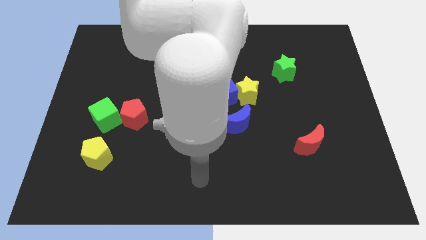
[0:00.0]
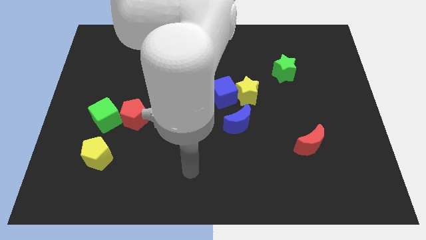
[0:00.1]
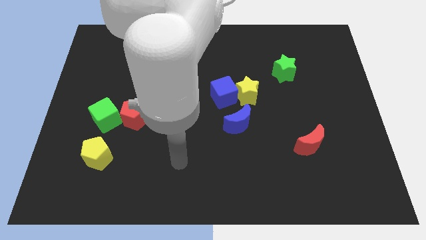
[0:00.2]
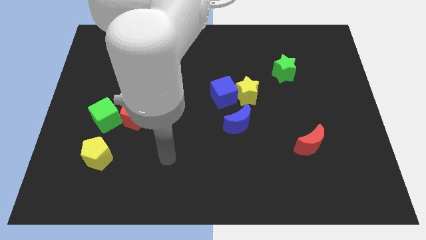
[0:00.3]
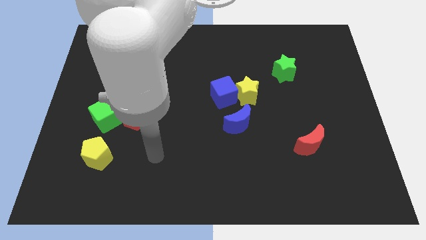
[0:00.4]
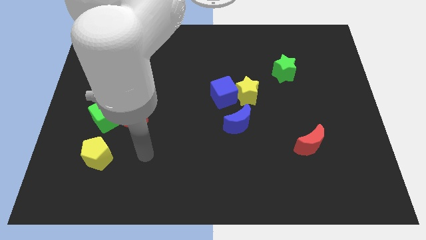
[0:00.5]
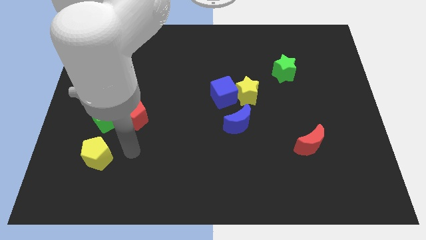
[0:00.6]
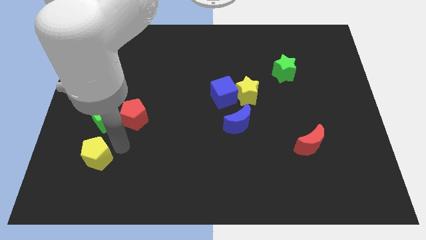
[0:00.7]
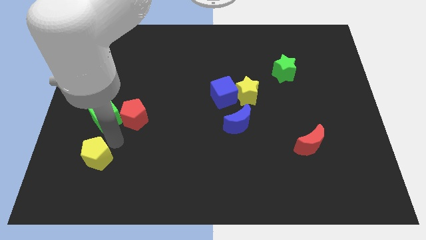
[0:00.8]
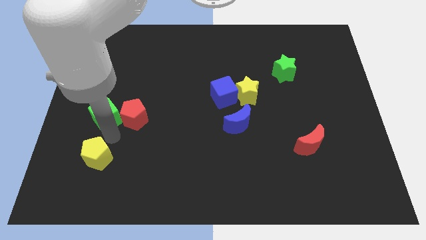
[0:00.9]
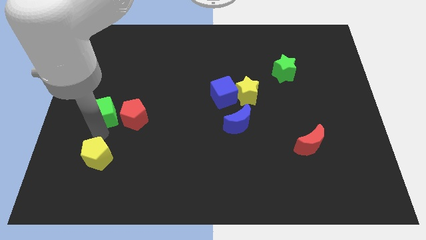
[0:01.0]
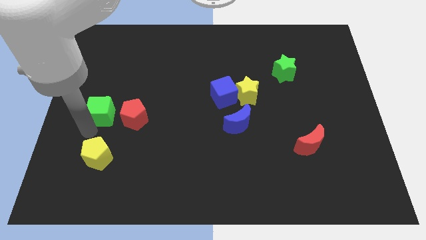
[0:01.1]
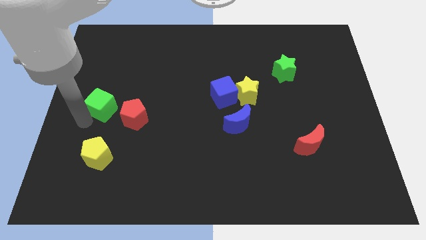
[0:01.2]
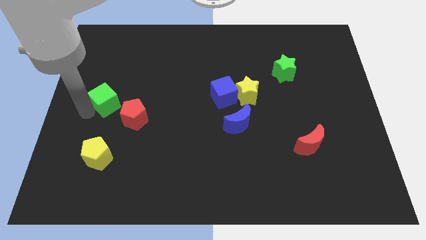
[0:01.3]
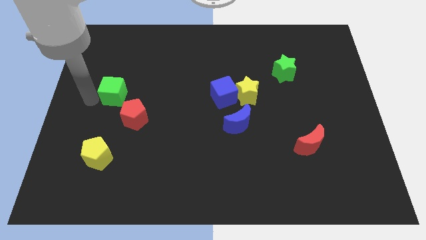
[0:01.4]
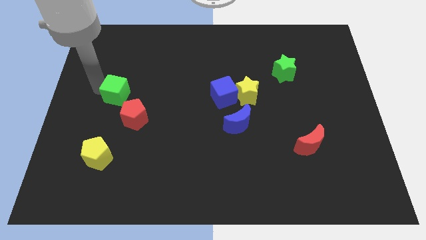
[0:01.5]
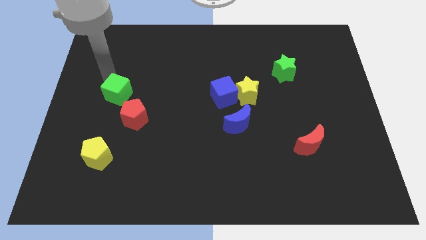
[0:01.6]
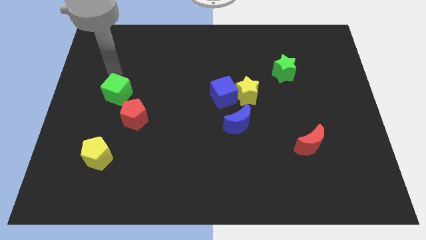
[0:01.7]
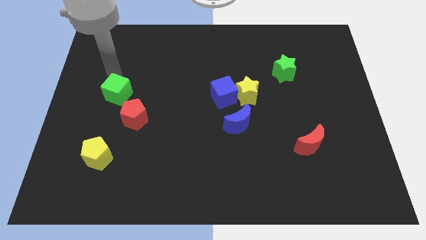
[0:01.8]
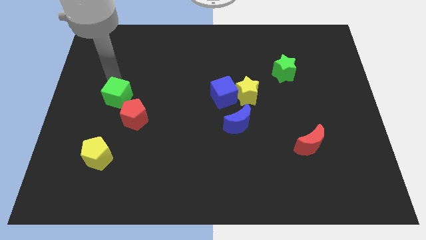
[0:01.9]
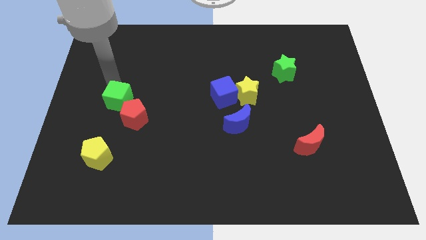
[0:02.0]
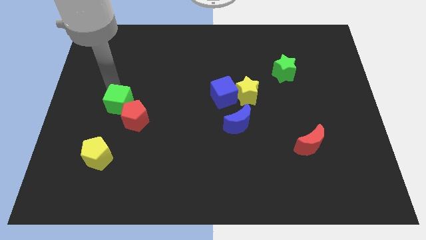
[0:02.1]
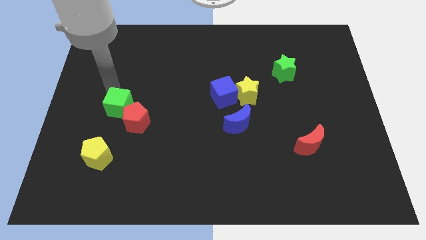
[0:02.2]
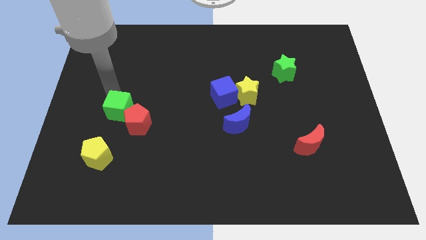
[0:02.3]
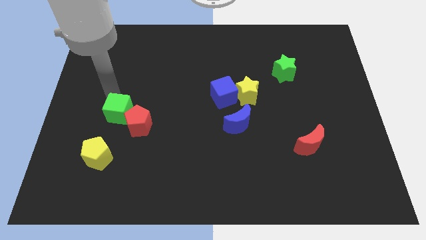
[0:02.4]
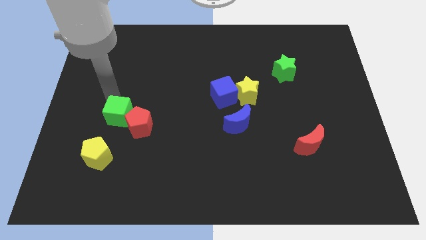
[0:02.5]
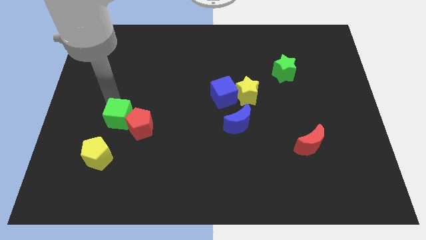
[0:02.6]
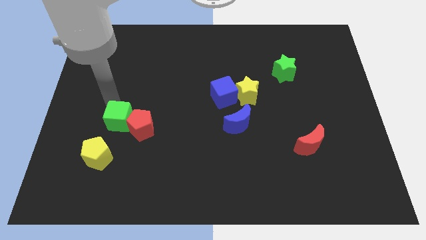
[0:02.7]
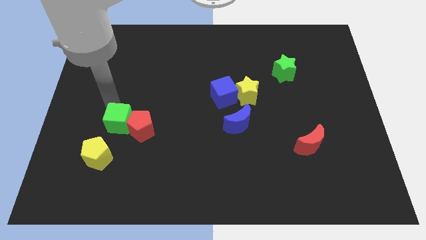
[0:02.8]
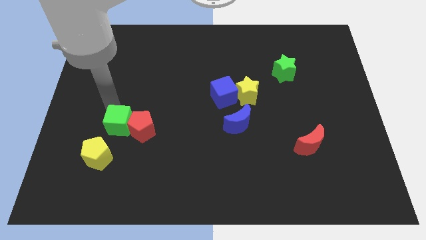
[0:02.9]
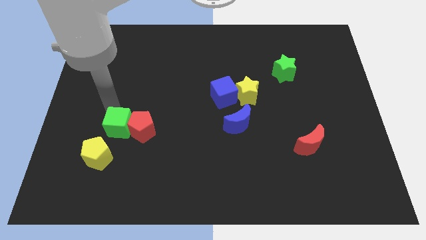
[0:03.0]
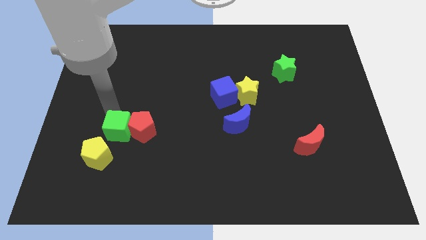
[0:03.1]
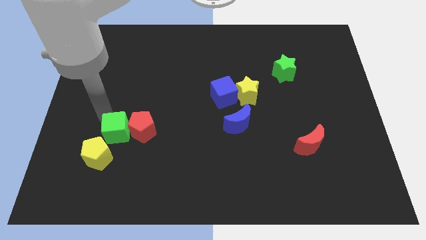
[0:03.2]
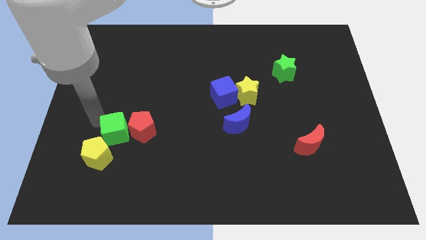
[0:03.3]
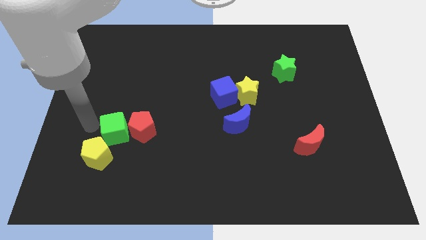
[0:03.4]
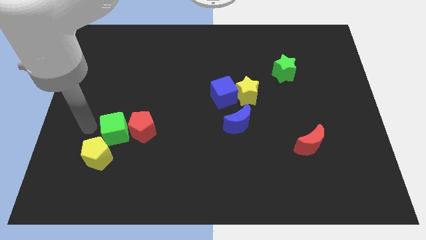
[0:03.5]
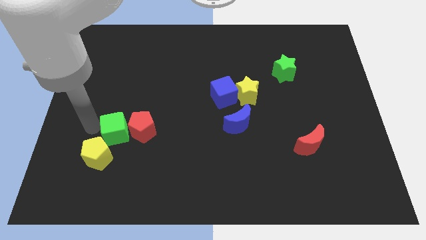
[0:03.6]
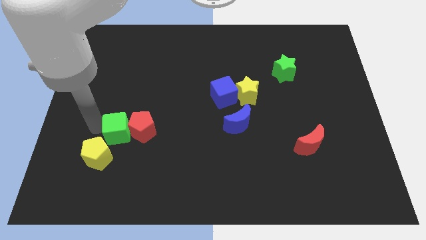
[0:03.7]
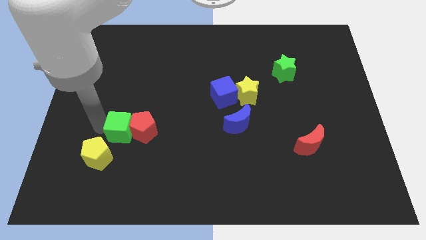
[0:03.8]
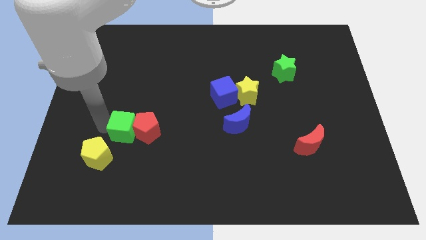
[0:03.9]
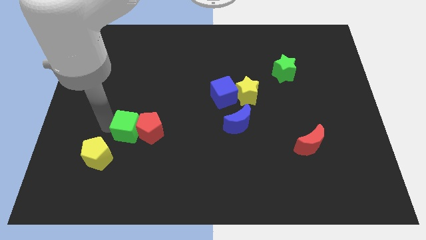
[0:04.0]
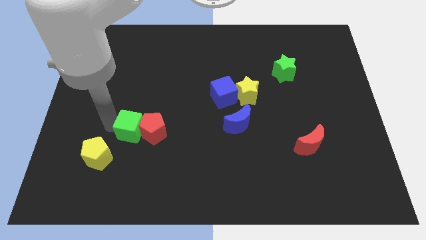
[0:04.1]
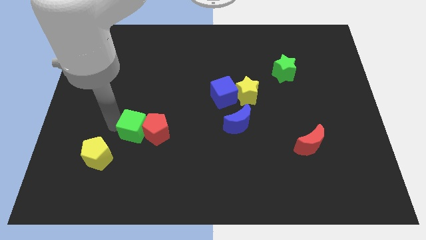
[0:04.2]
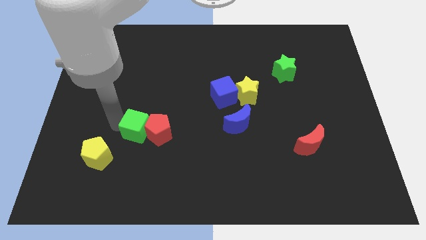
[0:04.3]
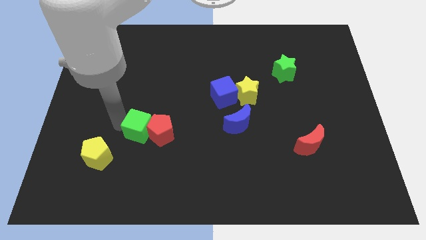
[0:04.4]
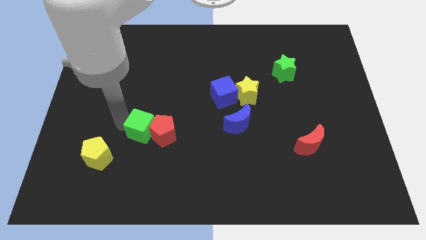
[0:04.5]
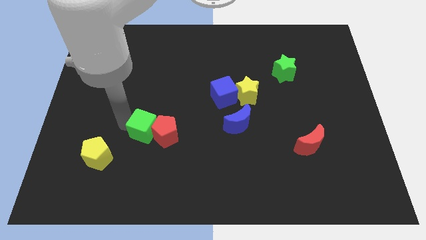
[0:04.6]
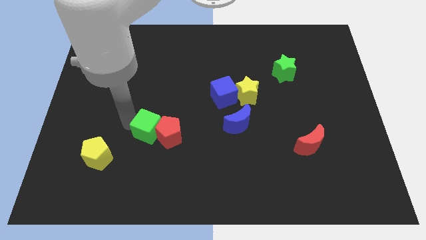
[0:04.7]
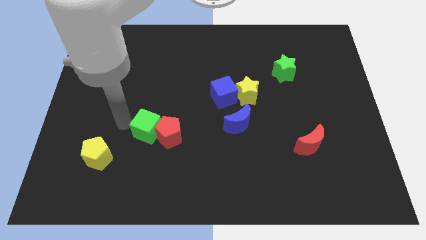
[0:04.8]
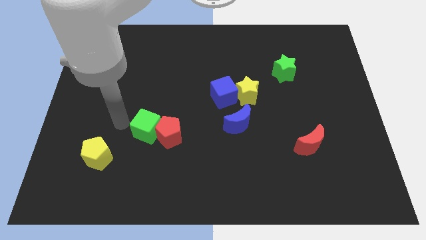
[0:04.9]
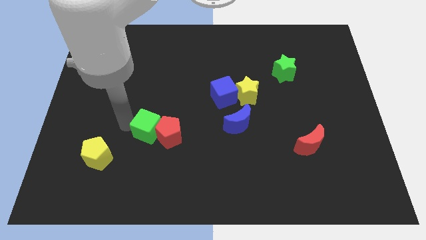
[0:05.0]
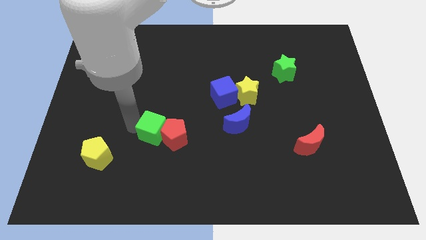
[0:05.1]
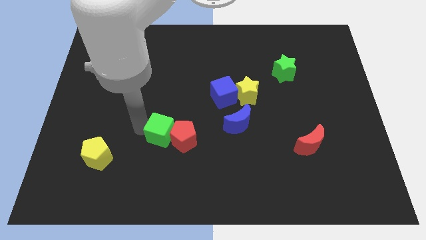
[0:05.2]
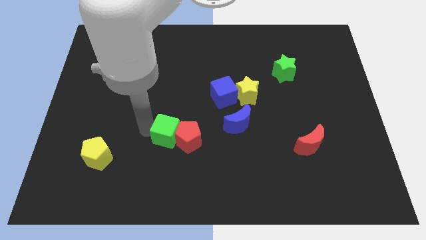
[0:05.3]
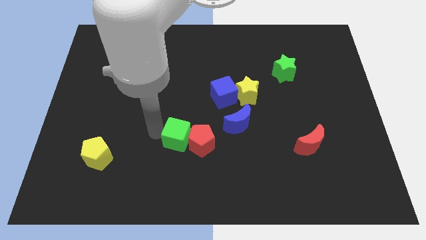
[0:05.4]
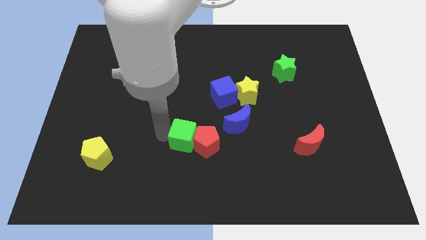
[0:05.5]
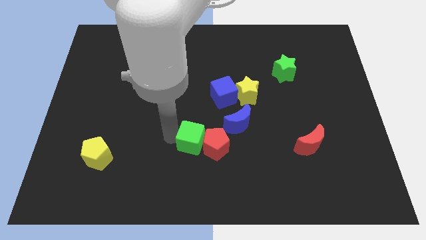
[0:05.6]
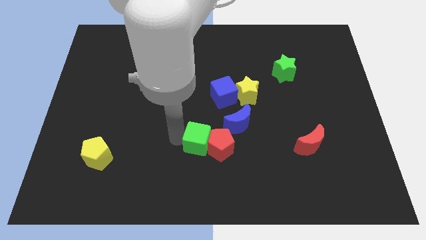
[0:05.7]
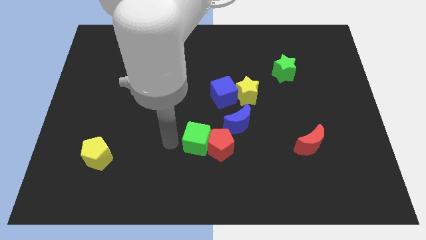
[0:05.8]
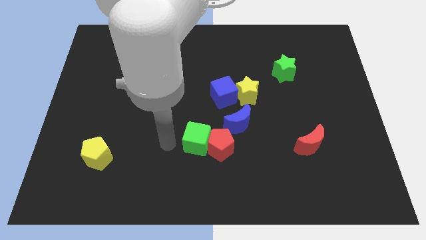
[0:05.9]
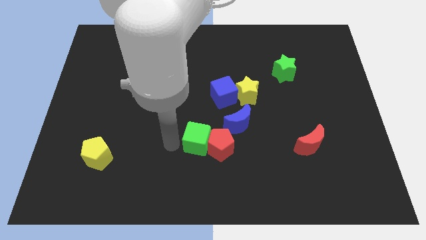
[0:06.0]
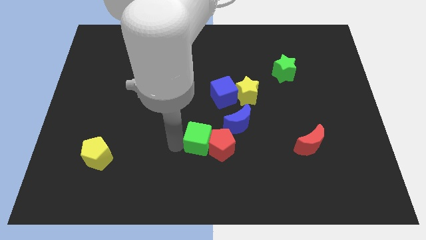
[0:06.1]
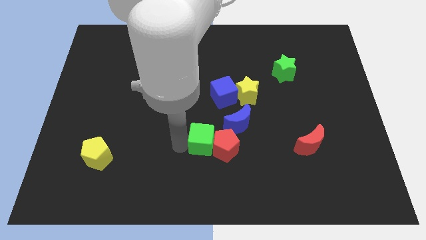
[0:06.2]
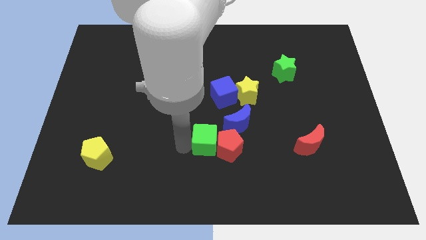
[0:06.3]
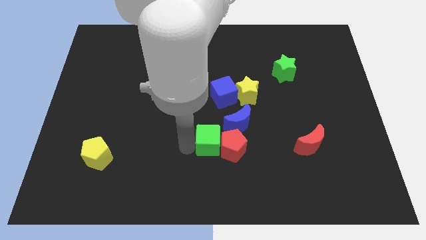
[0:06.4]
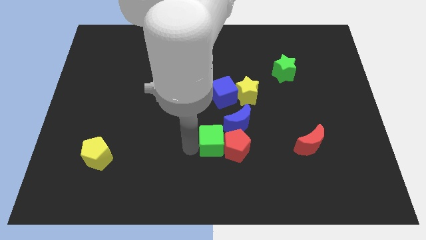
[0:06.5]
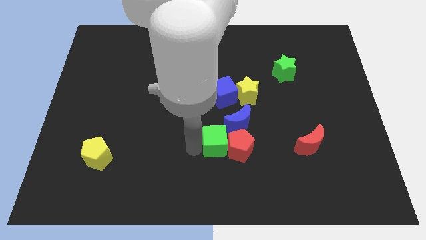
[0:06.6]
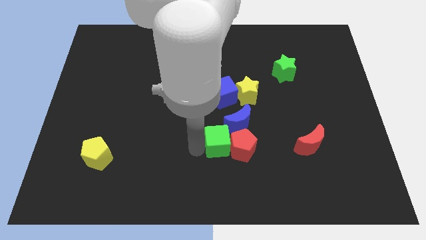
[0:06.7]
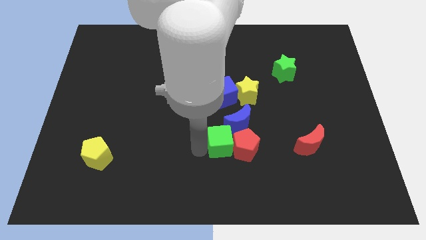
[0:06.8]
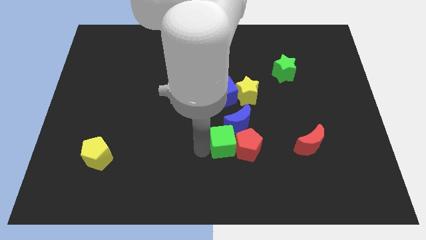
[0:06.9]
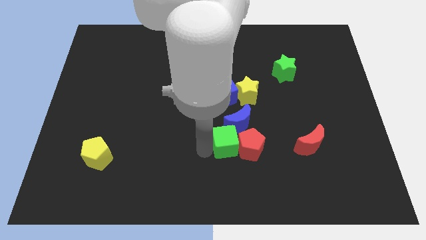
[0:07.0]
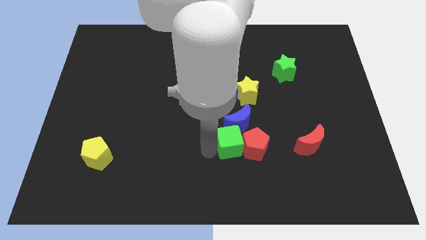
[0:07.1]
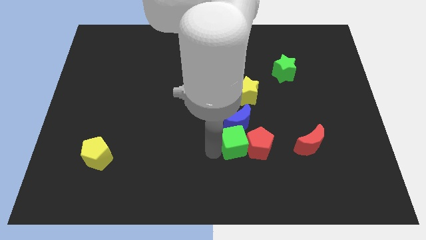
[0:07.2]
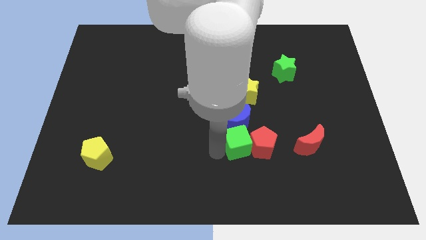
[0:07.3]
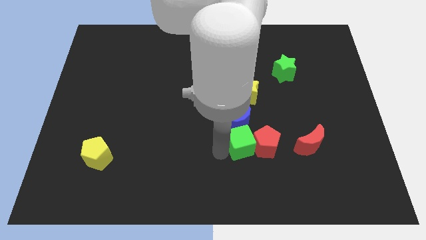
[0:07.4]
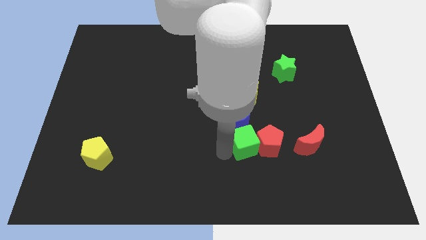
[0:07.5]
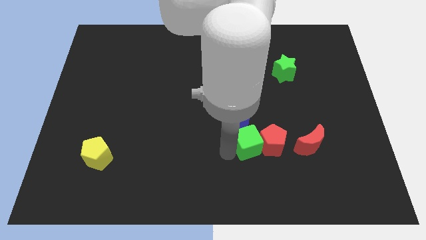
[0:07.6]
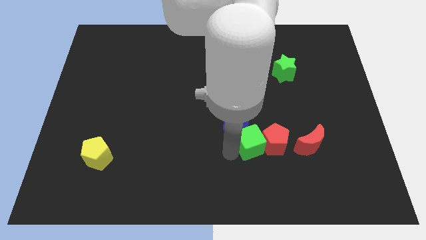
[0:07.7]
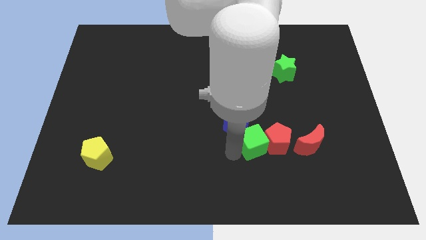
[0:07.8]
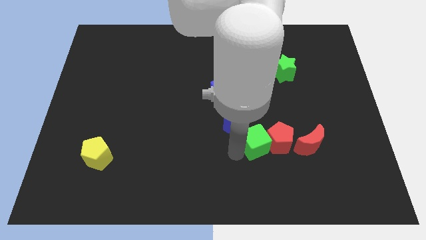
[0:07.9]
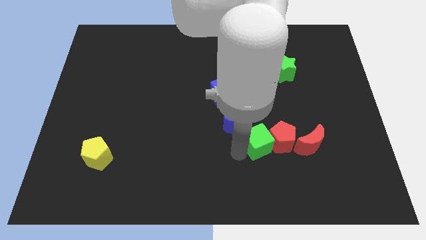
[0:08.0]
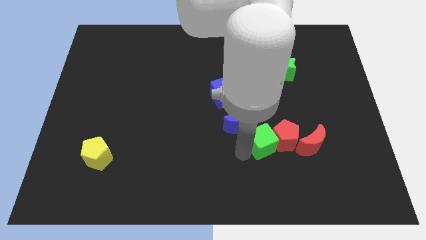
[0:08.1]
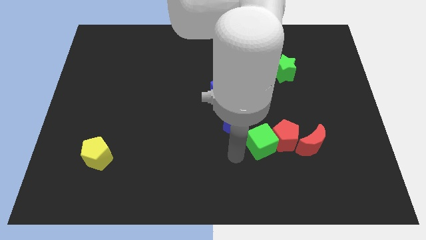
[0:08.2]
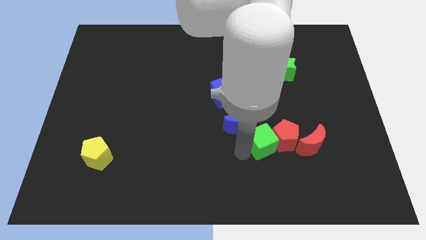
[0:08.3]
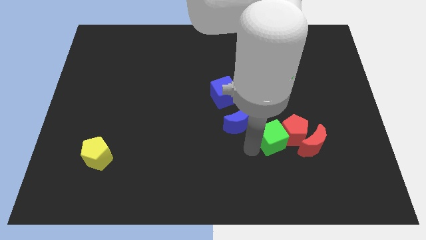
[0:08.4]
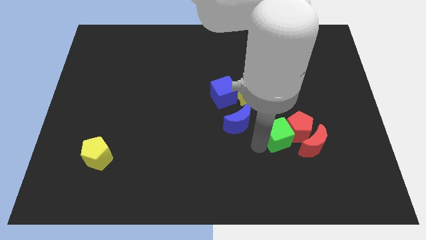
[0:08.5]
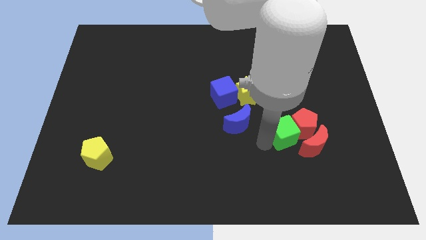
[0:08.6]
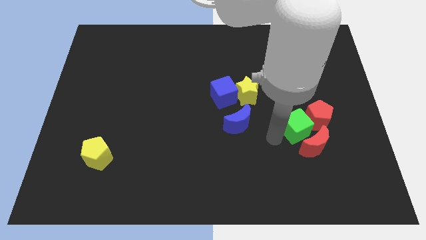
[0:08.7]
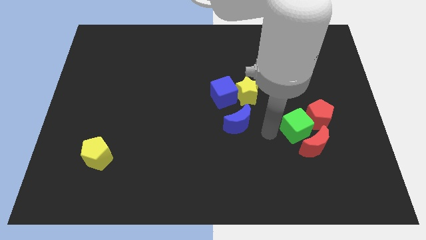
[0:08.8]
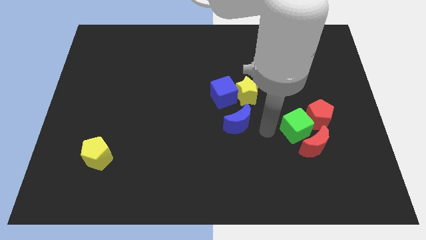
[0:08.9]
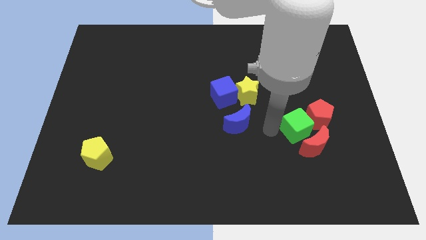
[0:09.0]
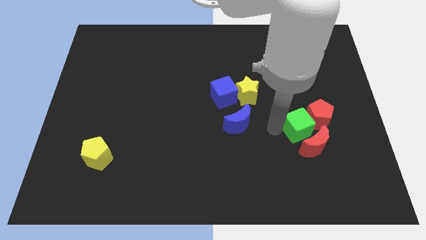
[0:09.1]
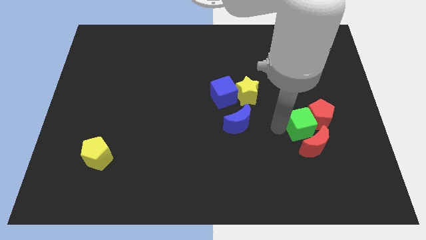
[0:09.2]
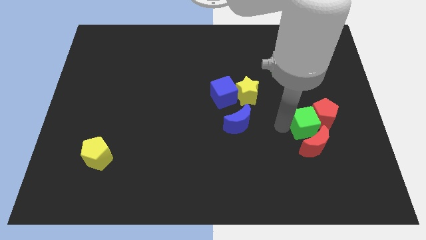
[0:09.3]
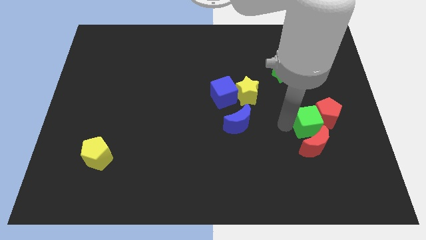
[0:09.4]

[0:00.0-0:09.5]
move the green cube to the top right of the red moon
